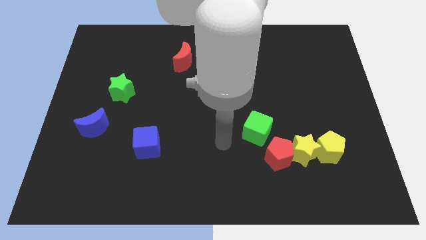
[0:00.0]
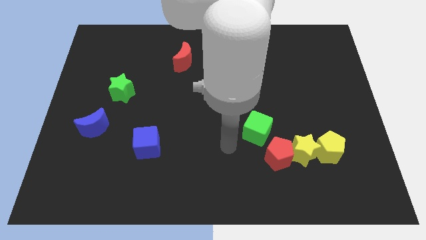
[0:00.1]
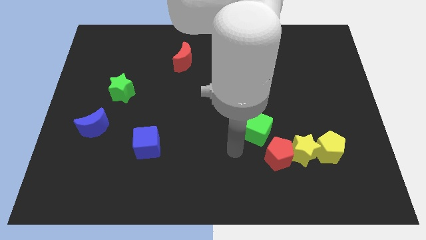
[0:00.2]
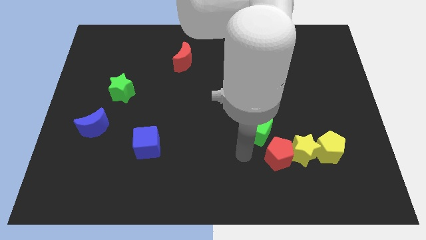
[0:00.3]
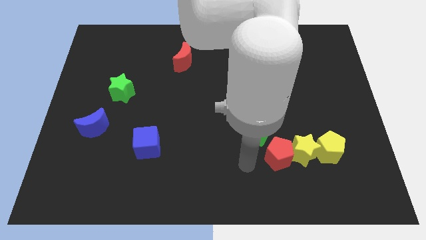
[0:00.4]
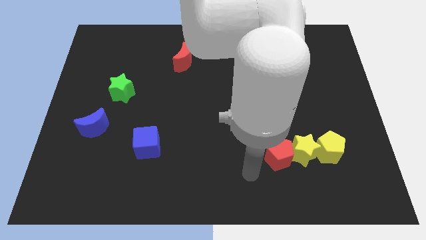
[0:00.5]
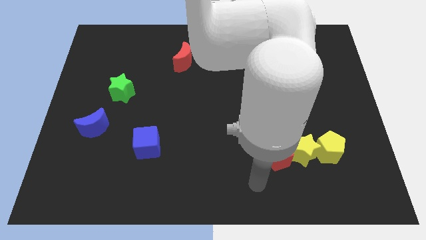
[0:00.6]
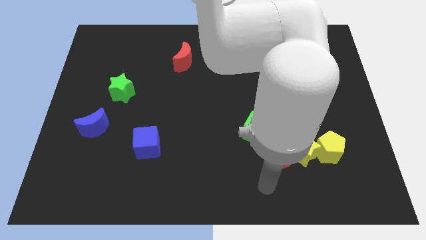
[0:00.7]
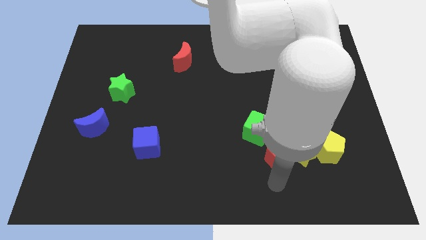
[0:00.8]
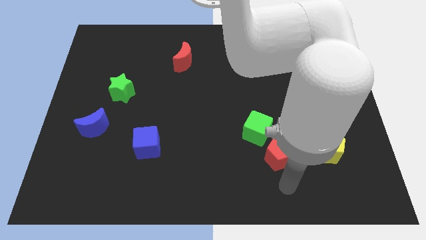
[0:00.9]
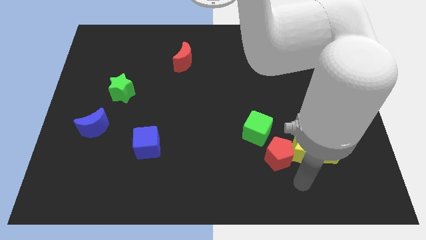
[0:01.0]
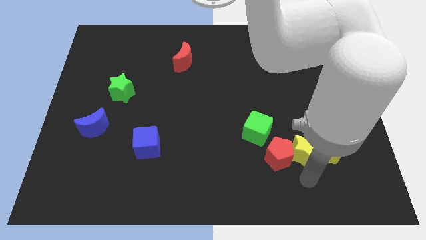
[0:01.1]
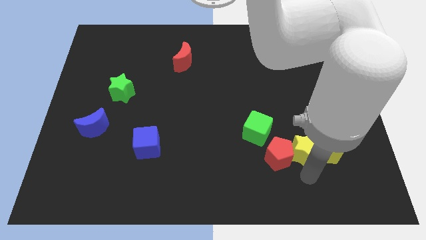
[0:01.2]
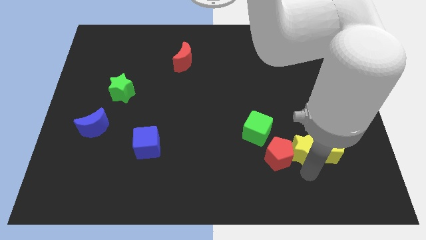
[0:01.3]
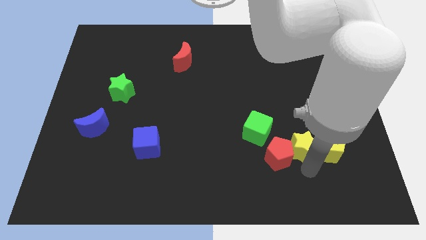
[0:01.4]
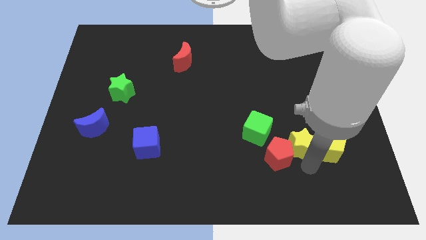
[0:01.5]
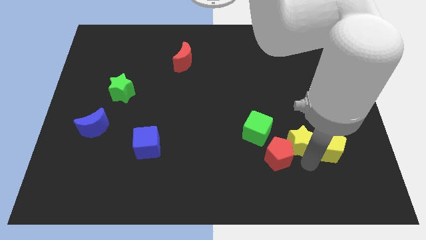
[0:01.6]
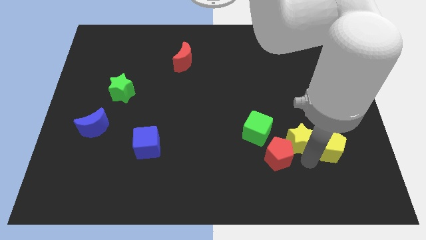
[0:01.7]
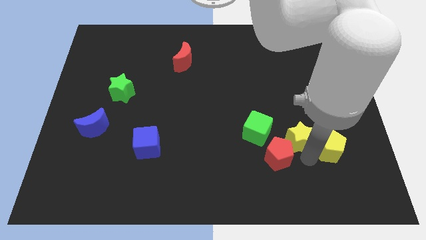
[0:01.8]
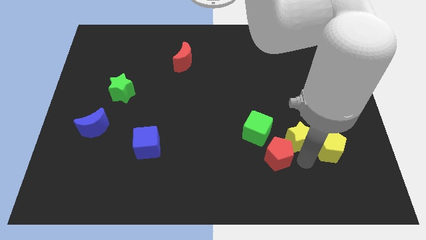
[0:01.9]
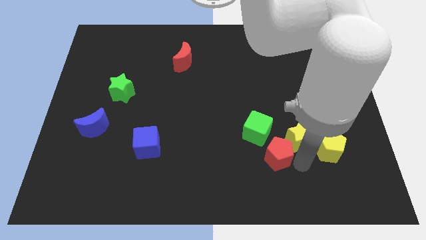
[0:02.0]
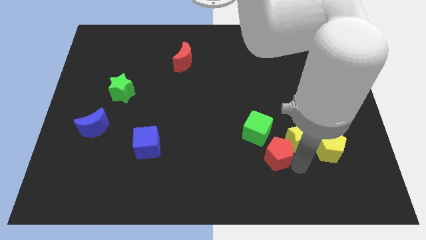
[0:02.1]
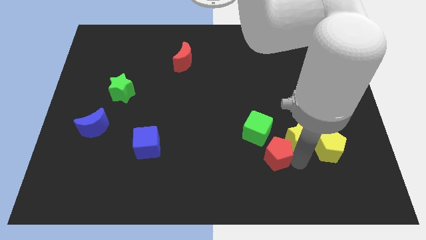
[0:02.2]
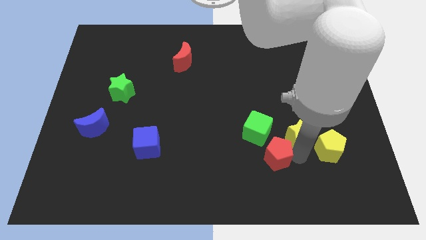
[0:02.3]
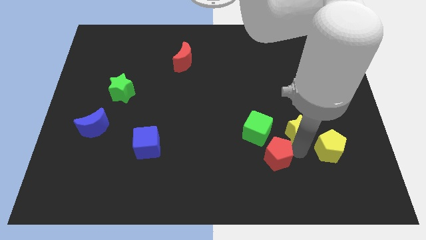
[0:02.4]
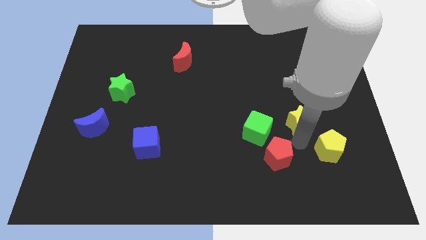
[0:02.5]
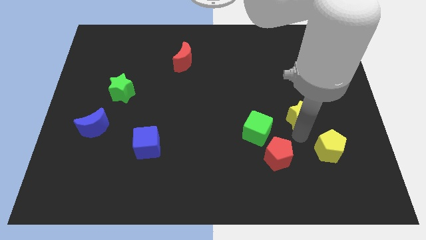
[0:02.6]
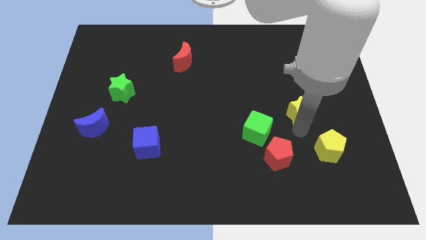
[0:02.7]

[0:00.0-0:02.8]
separate the yellow star from the red pentagon and yellow pentagon

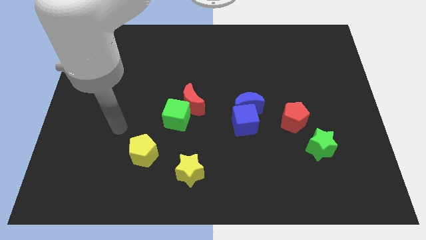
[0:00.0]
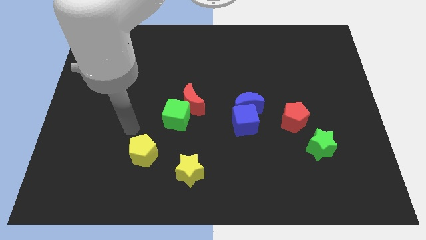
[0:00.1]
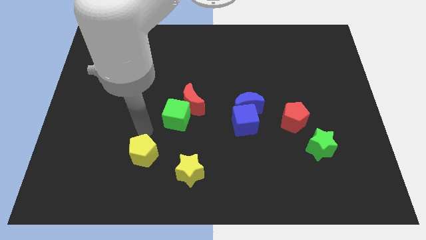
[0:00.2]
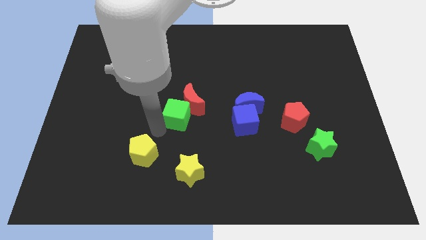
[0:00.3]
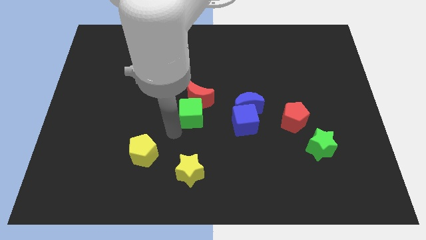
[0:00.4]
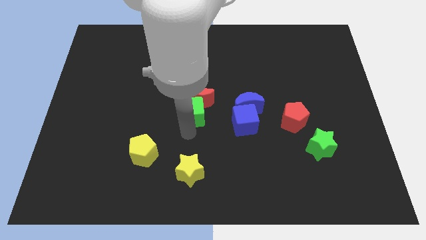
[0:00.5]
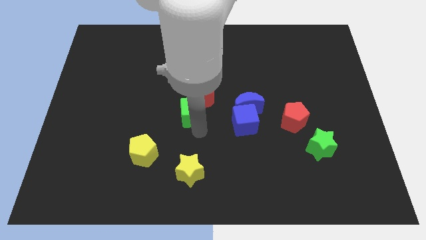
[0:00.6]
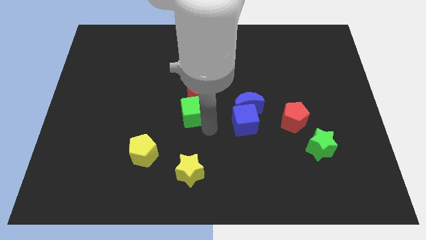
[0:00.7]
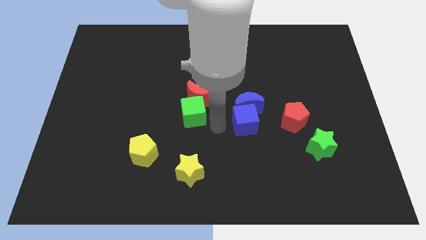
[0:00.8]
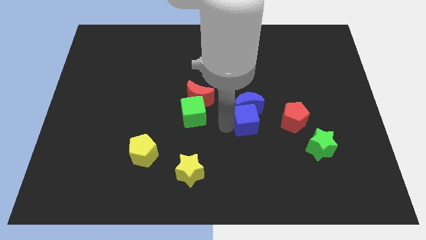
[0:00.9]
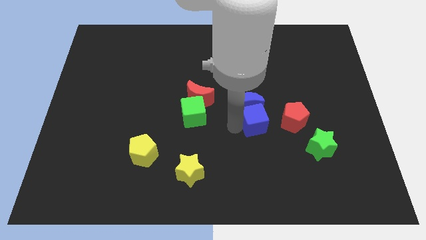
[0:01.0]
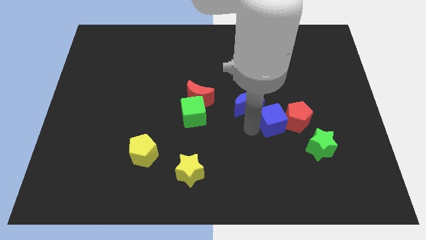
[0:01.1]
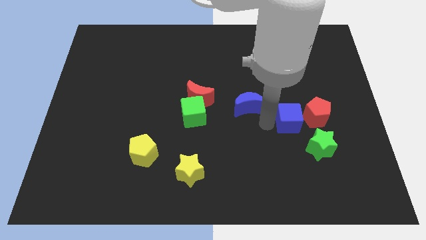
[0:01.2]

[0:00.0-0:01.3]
separate the blue moon from the blue cube

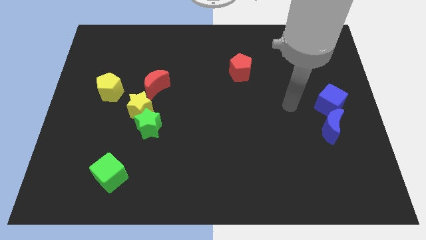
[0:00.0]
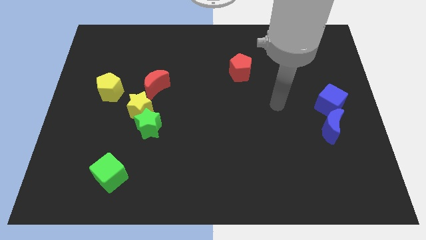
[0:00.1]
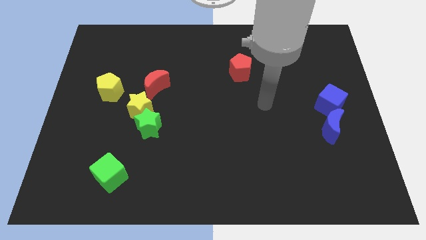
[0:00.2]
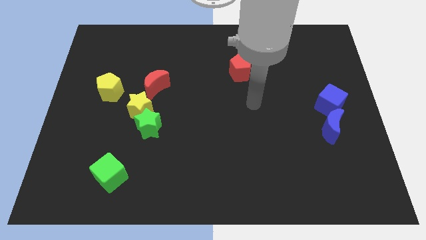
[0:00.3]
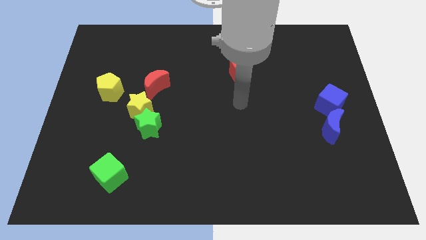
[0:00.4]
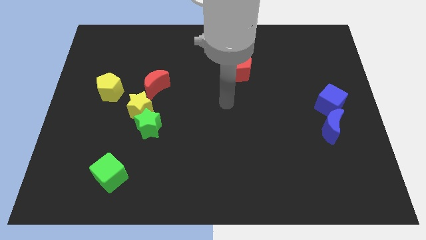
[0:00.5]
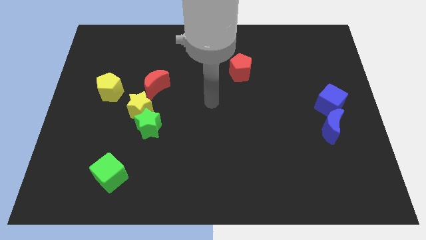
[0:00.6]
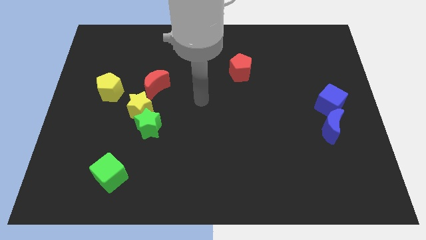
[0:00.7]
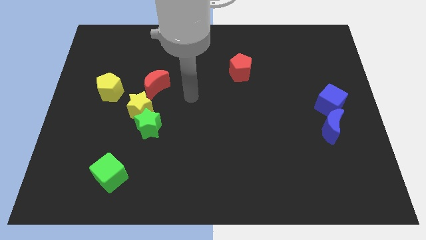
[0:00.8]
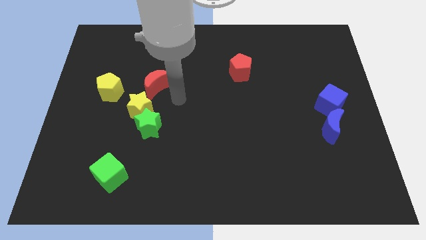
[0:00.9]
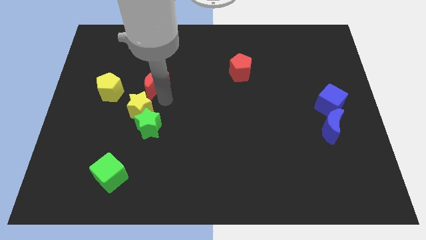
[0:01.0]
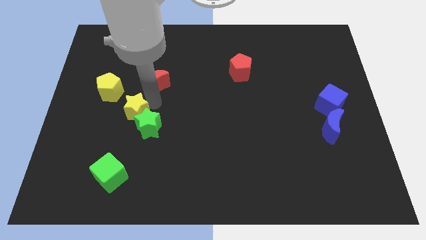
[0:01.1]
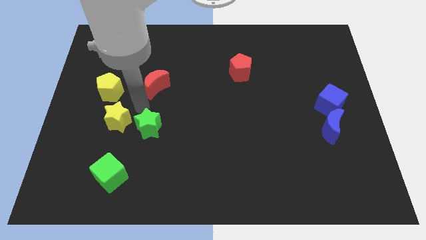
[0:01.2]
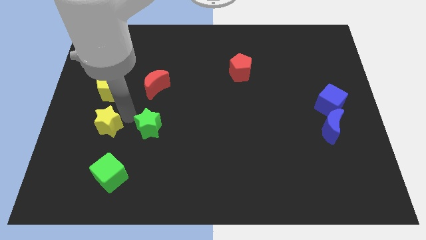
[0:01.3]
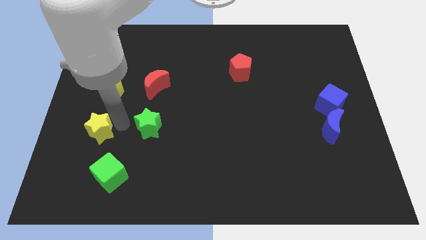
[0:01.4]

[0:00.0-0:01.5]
separate the green star from the yellow star

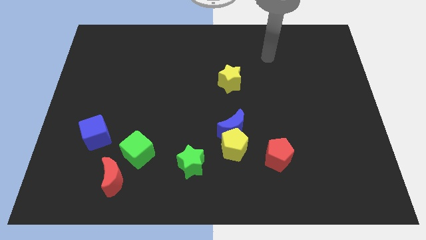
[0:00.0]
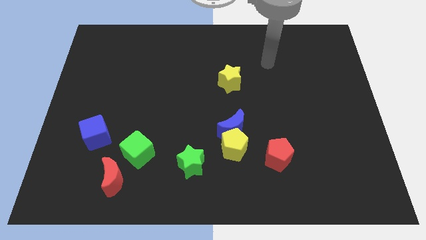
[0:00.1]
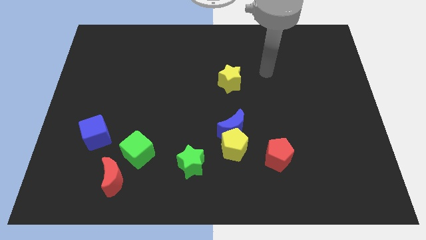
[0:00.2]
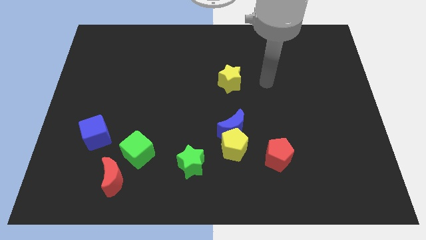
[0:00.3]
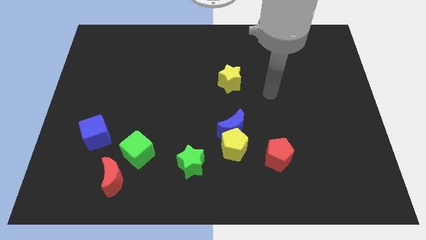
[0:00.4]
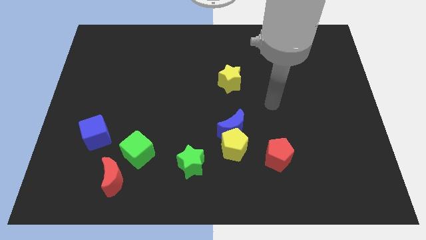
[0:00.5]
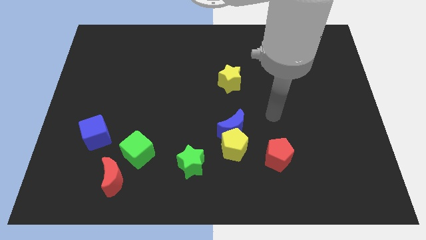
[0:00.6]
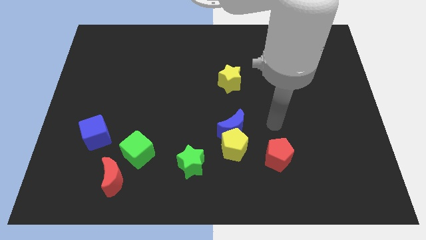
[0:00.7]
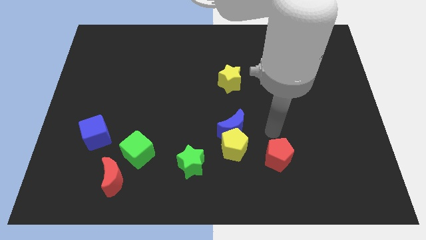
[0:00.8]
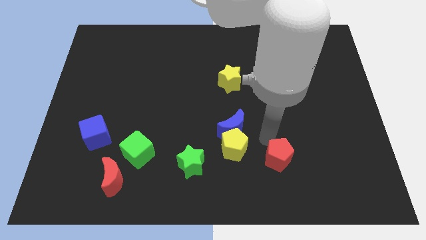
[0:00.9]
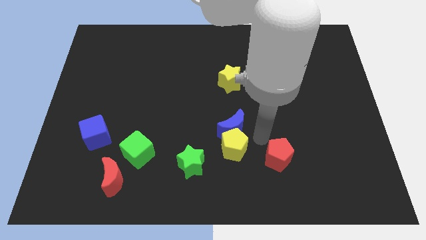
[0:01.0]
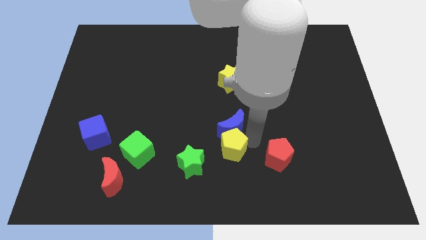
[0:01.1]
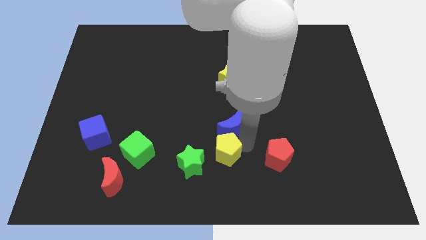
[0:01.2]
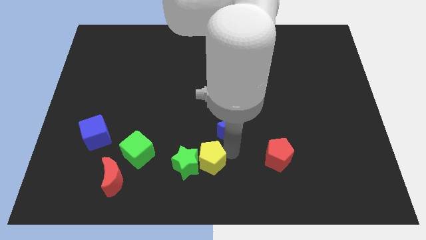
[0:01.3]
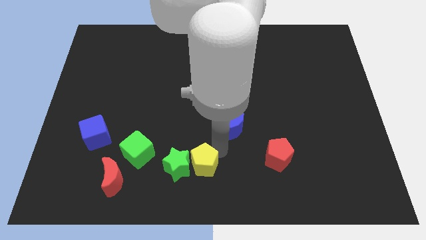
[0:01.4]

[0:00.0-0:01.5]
move the blue moon away from the yellow pentagon

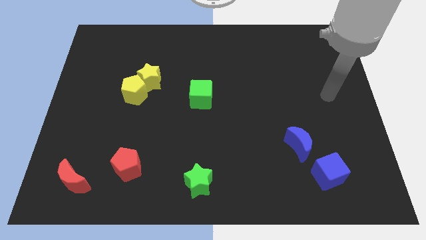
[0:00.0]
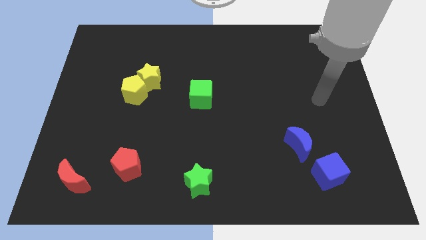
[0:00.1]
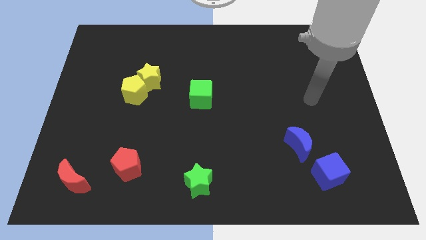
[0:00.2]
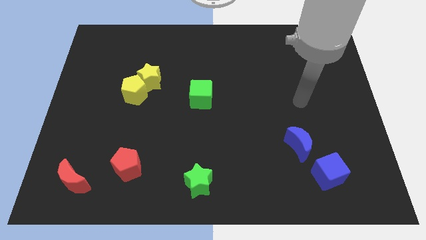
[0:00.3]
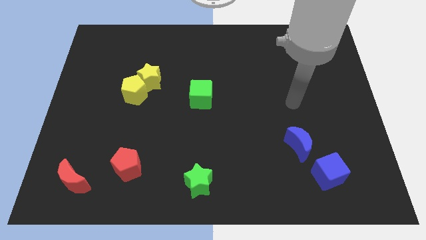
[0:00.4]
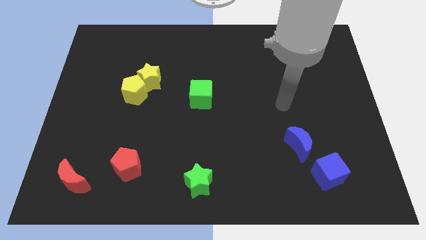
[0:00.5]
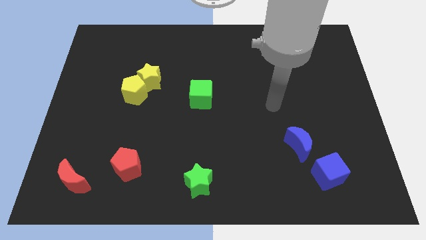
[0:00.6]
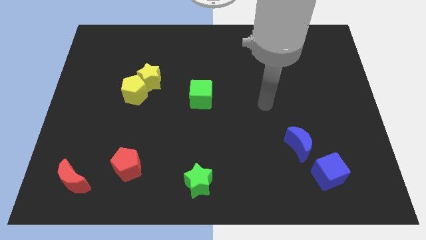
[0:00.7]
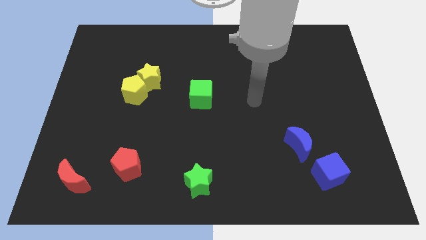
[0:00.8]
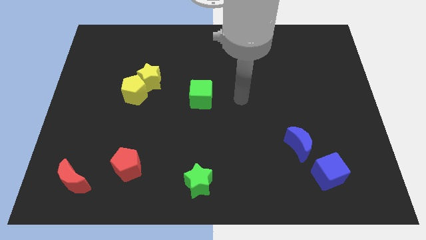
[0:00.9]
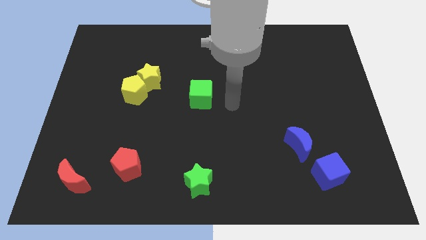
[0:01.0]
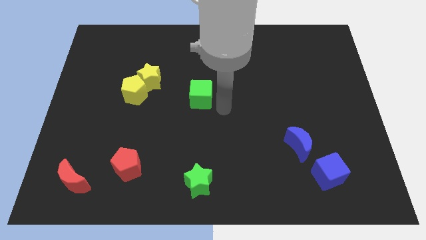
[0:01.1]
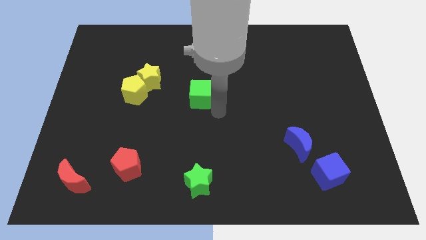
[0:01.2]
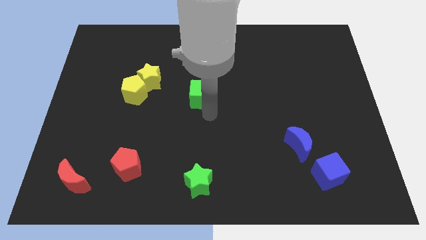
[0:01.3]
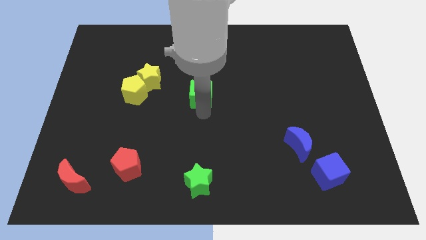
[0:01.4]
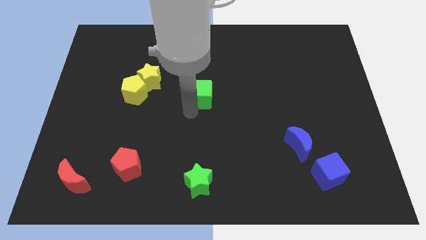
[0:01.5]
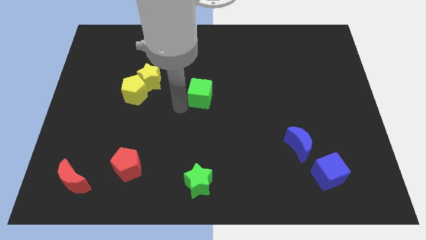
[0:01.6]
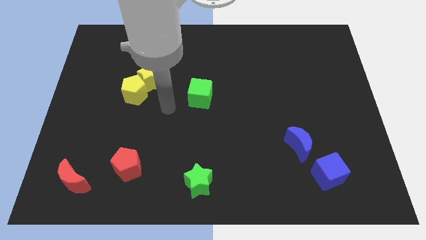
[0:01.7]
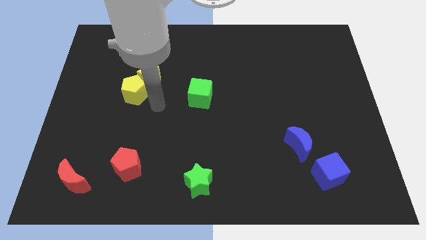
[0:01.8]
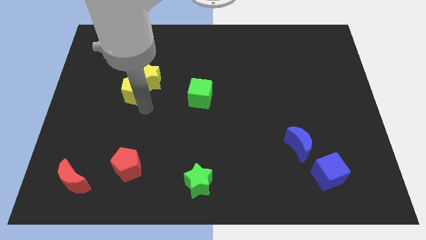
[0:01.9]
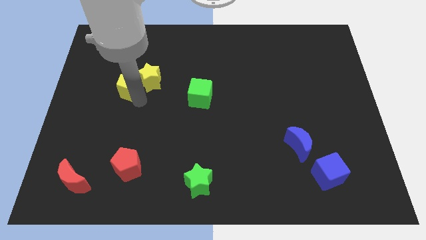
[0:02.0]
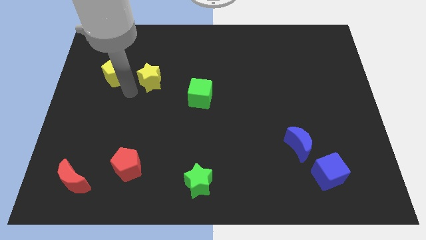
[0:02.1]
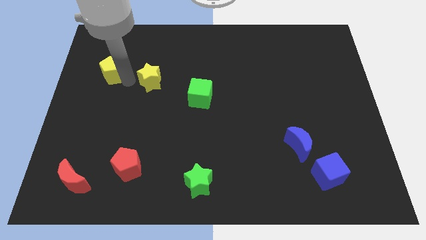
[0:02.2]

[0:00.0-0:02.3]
separate the yellow star from the yellow pentagon
